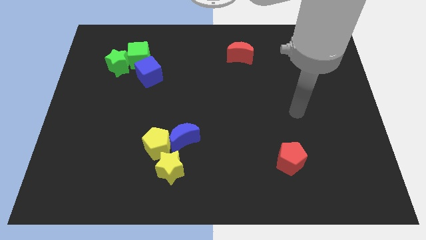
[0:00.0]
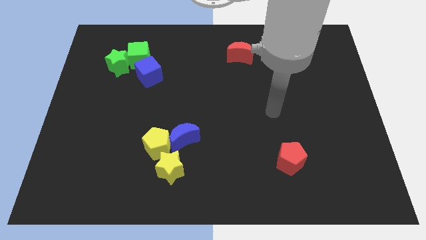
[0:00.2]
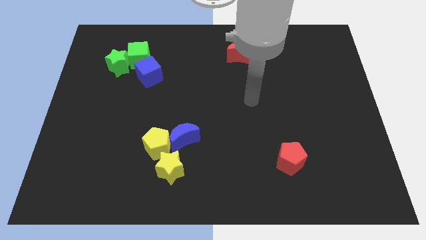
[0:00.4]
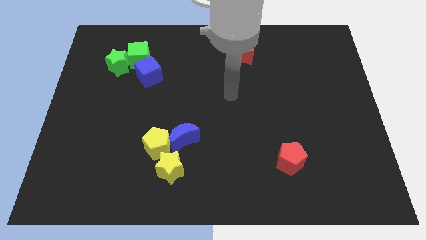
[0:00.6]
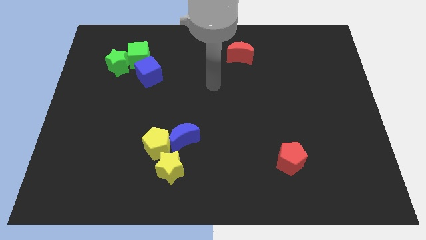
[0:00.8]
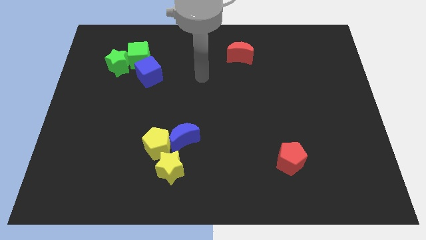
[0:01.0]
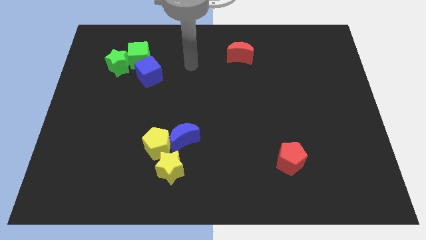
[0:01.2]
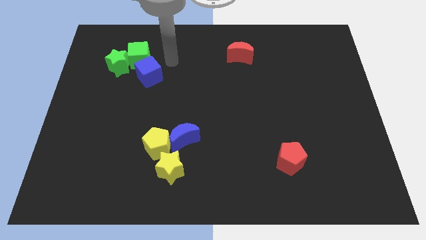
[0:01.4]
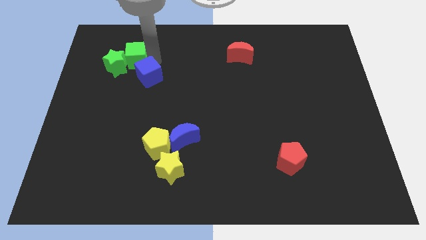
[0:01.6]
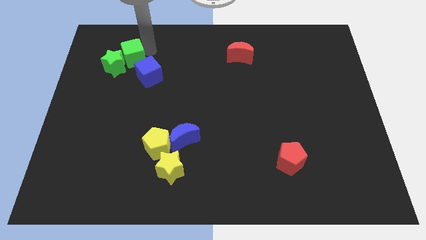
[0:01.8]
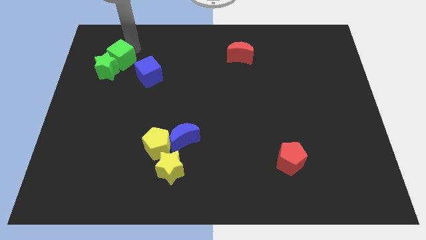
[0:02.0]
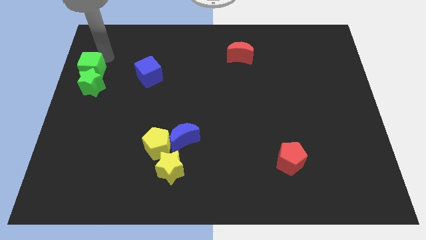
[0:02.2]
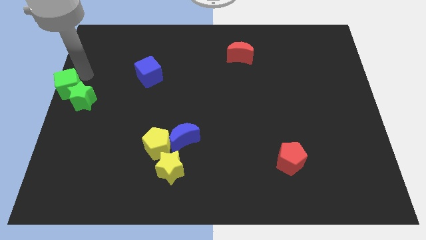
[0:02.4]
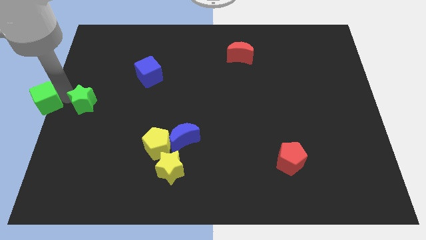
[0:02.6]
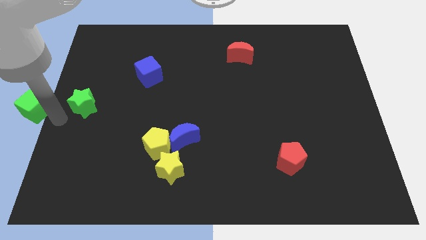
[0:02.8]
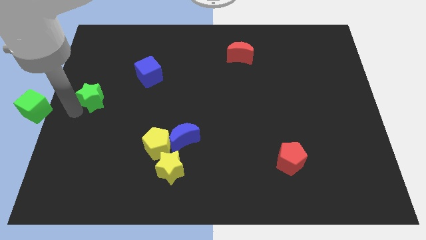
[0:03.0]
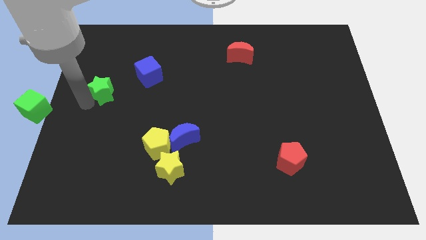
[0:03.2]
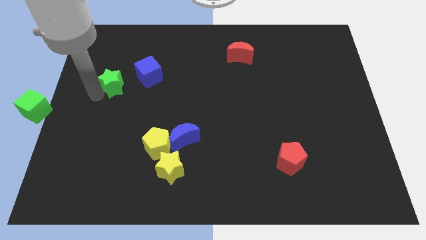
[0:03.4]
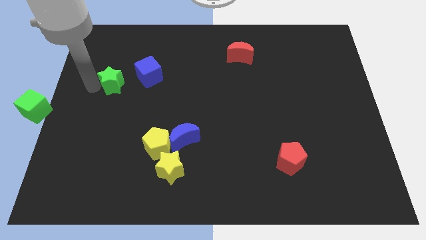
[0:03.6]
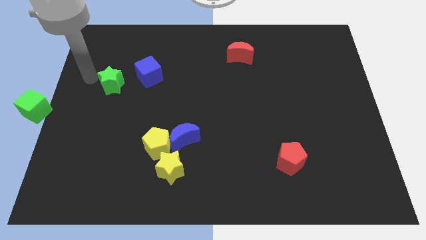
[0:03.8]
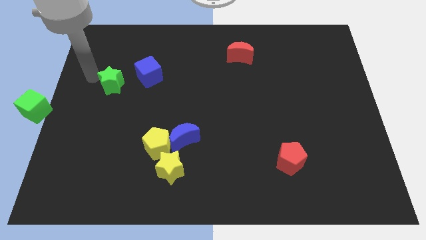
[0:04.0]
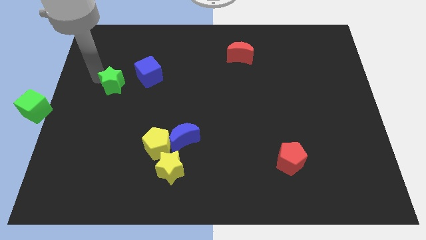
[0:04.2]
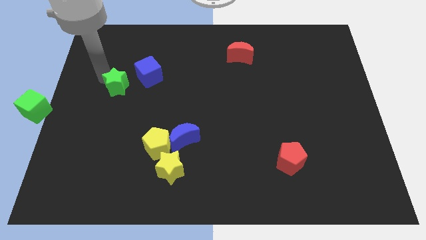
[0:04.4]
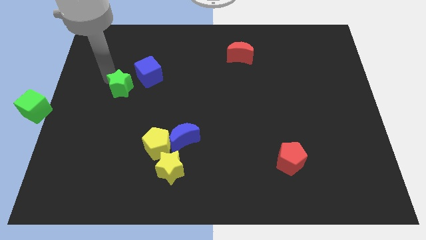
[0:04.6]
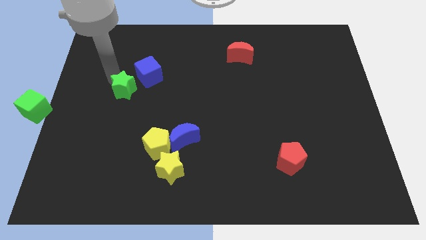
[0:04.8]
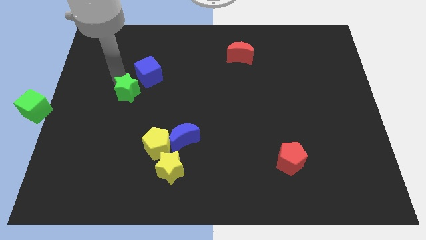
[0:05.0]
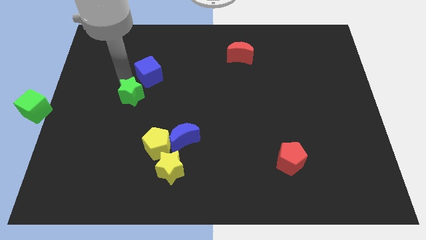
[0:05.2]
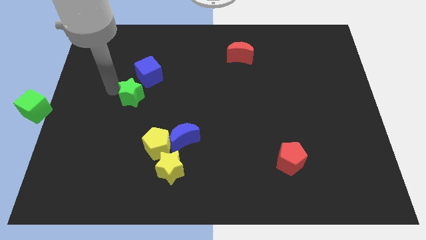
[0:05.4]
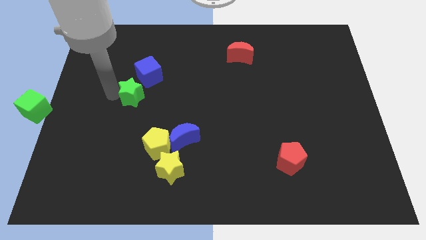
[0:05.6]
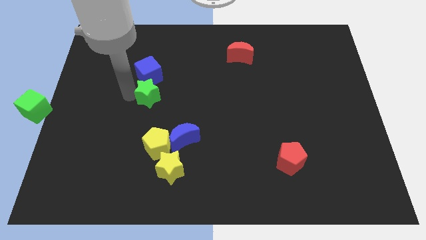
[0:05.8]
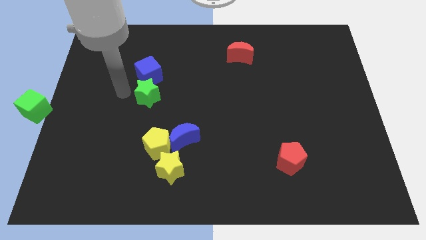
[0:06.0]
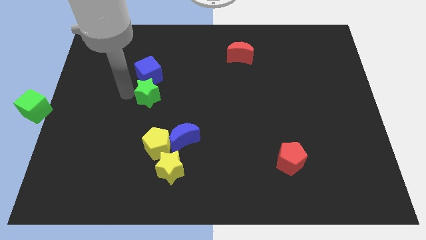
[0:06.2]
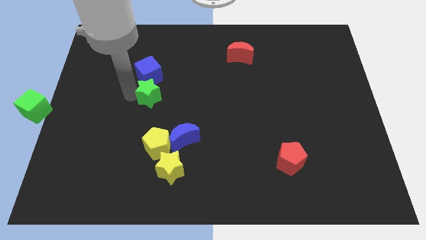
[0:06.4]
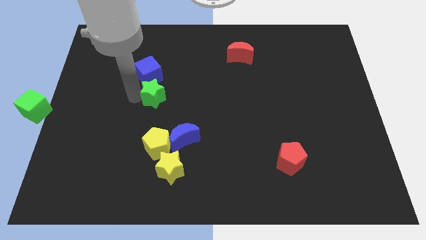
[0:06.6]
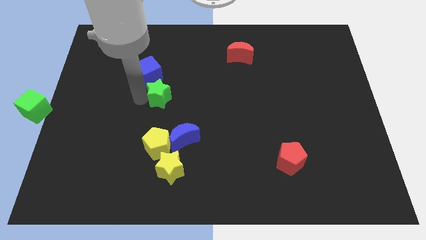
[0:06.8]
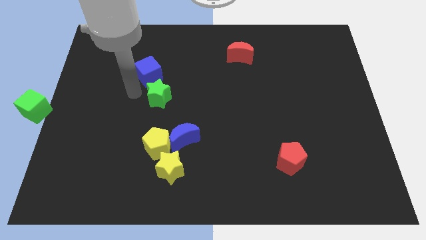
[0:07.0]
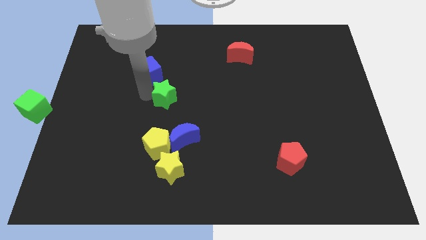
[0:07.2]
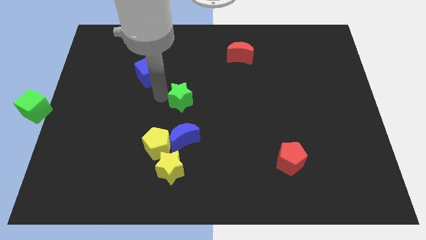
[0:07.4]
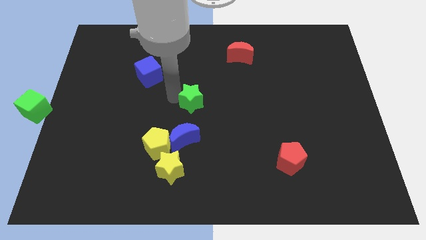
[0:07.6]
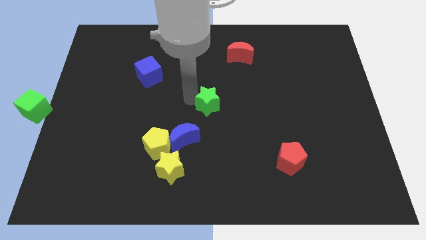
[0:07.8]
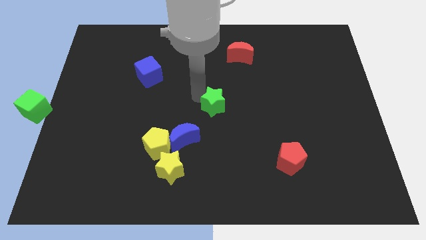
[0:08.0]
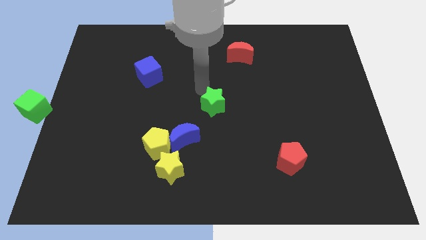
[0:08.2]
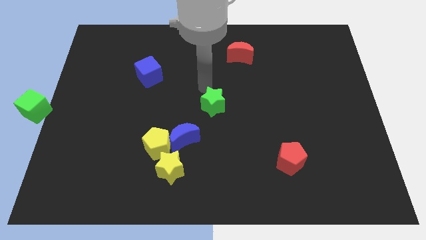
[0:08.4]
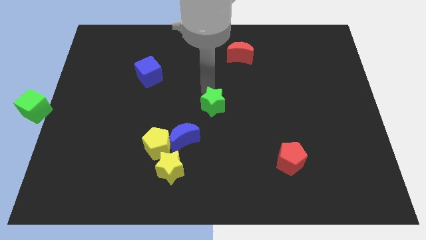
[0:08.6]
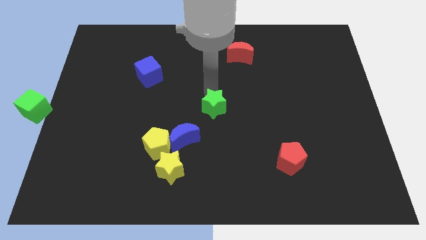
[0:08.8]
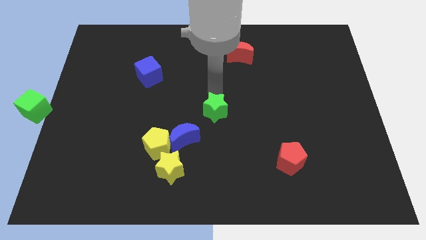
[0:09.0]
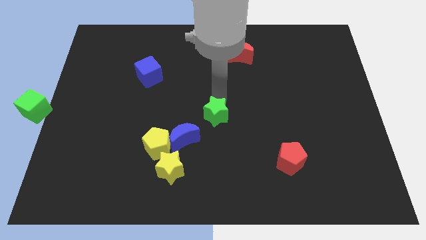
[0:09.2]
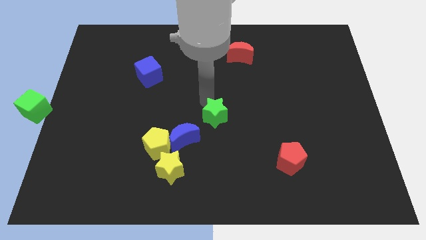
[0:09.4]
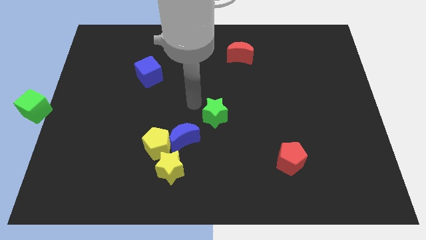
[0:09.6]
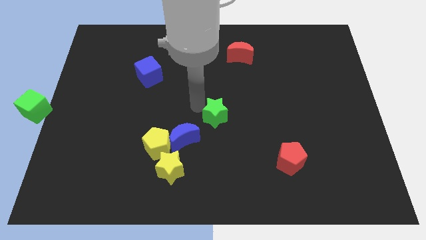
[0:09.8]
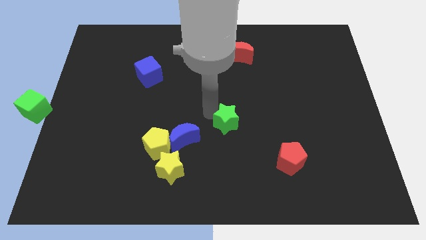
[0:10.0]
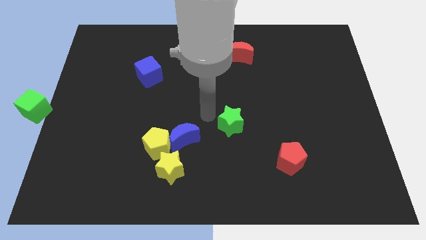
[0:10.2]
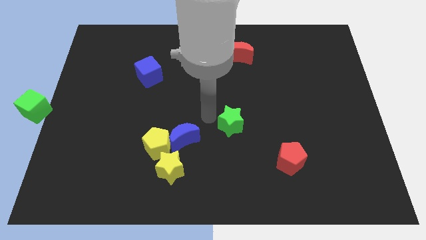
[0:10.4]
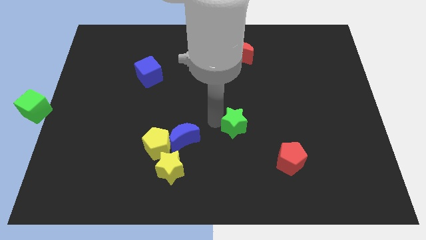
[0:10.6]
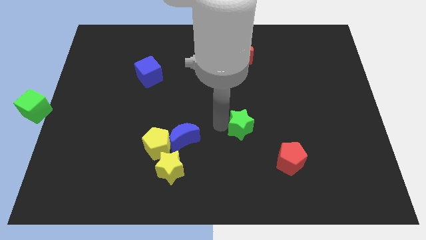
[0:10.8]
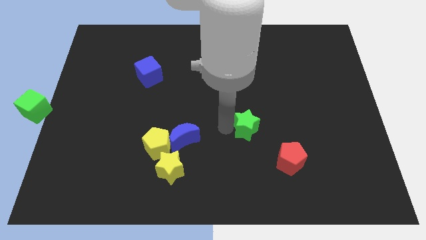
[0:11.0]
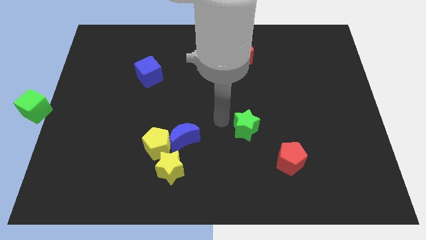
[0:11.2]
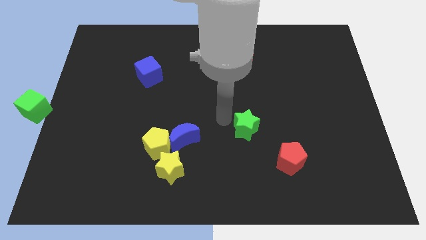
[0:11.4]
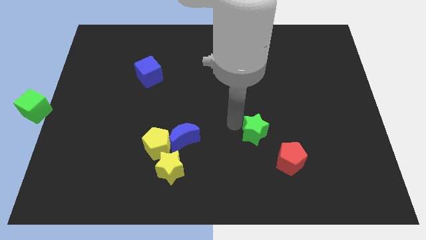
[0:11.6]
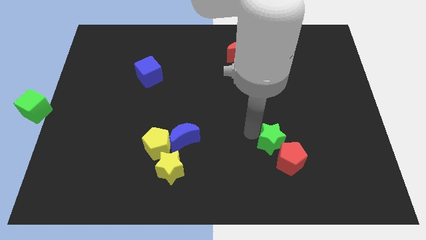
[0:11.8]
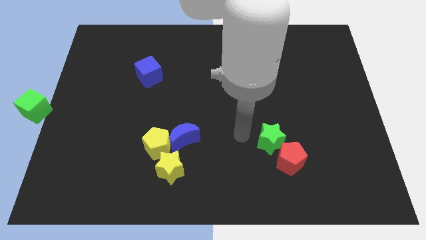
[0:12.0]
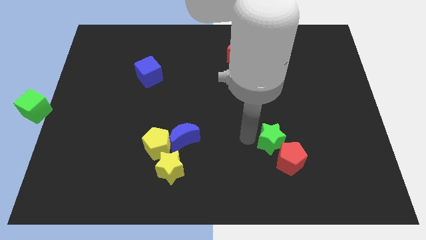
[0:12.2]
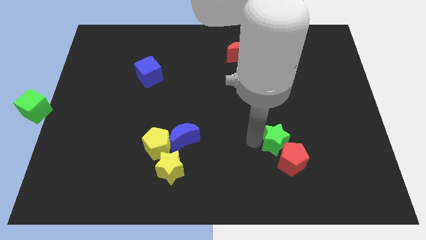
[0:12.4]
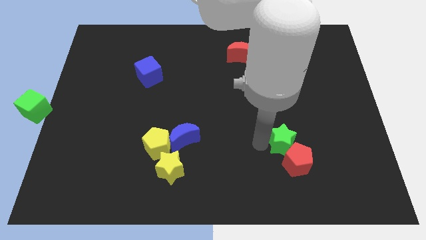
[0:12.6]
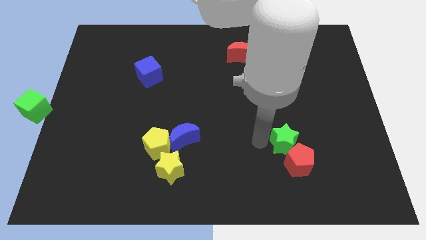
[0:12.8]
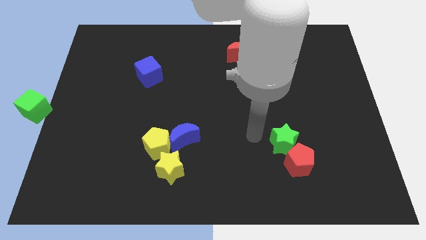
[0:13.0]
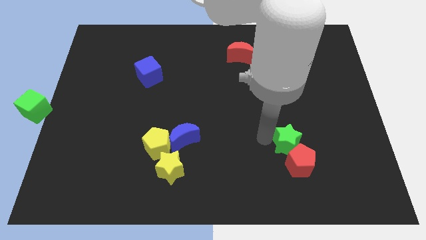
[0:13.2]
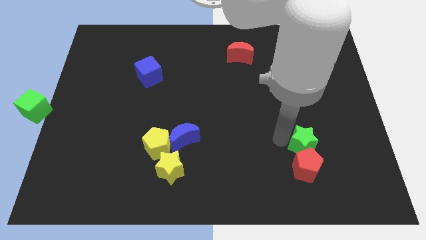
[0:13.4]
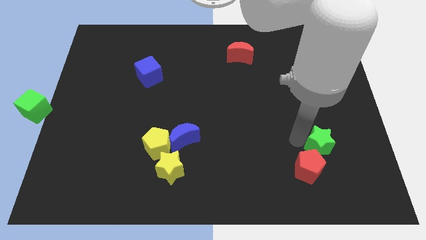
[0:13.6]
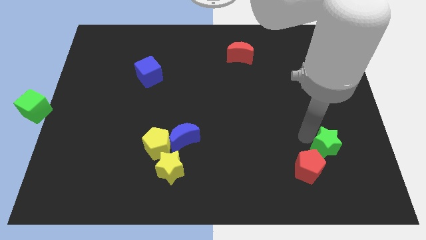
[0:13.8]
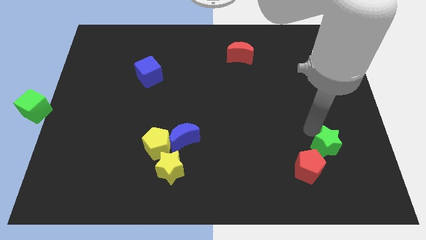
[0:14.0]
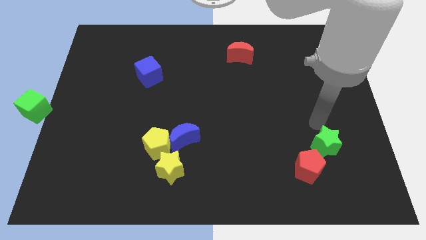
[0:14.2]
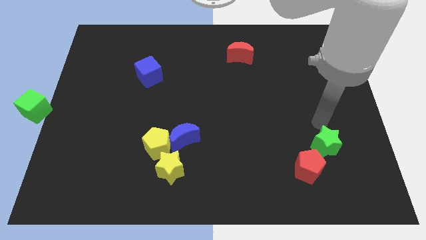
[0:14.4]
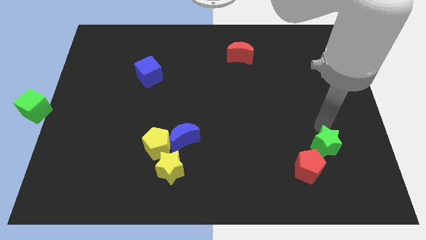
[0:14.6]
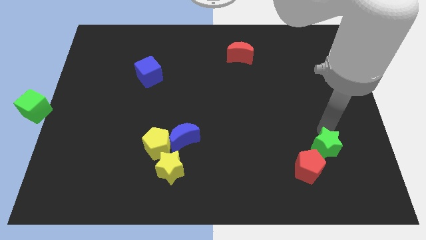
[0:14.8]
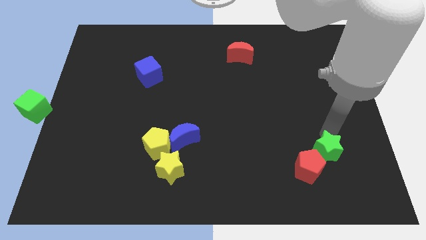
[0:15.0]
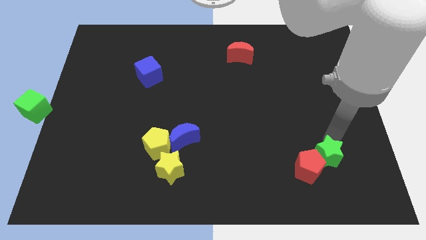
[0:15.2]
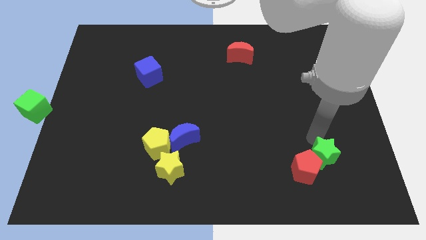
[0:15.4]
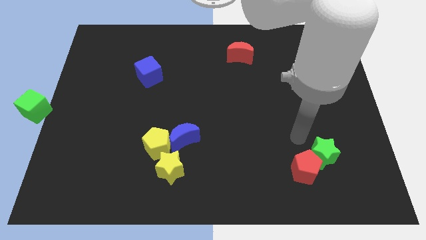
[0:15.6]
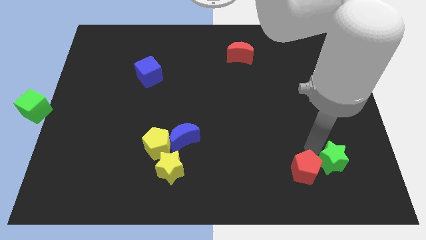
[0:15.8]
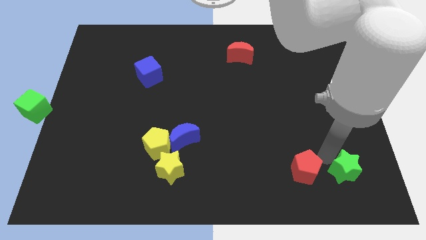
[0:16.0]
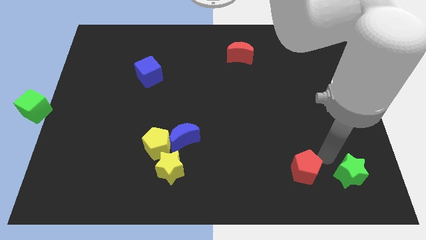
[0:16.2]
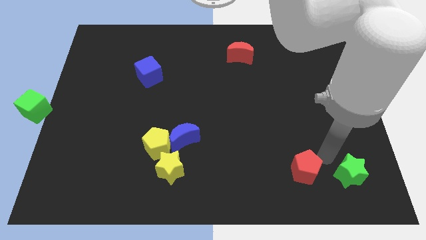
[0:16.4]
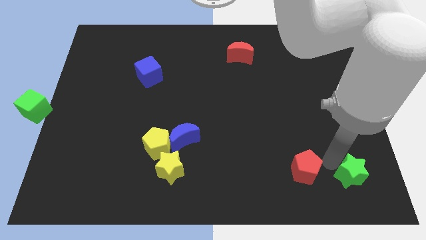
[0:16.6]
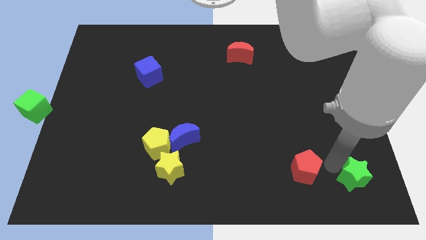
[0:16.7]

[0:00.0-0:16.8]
push the green star to the lower right corner
